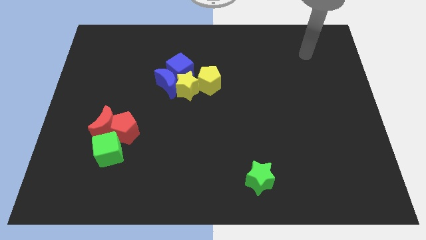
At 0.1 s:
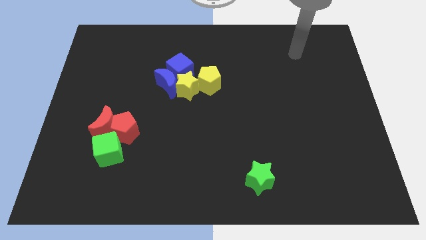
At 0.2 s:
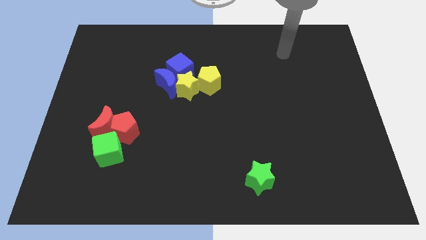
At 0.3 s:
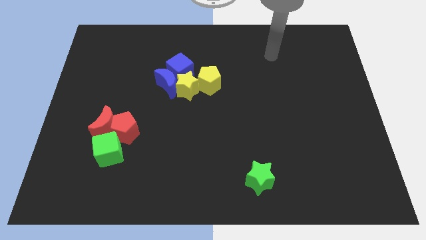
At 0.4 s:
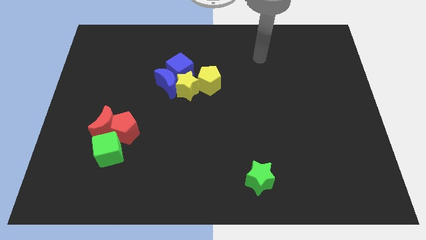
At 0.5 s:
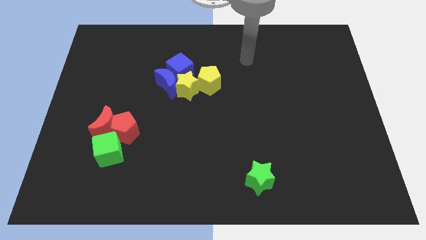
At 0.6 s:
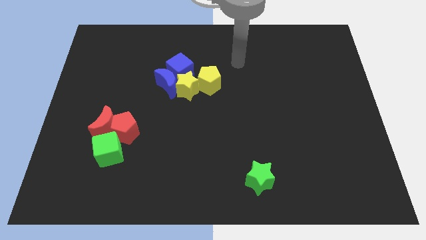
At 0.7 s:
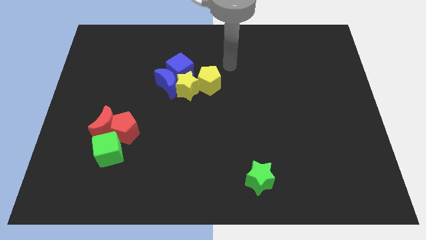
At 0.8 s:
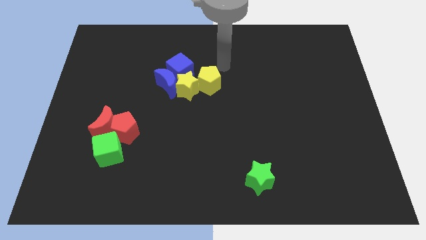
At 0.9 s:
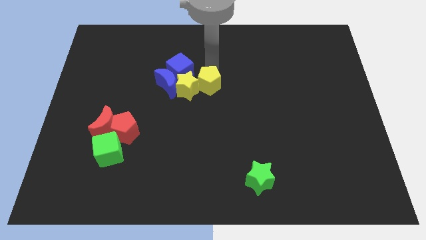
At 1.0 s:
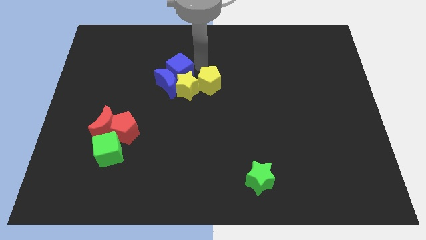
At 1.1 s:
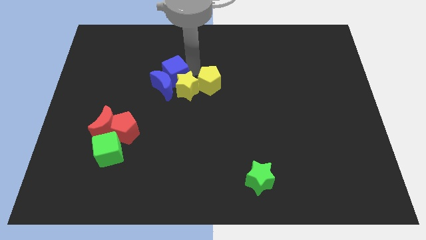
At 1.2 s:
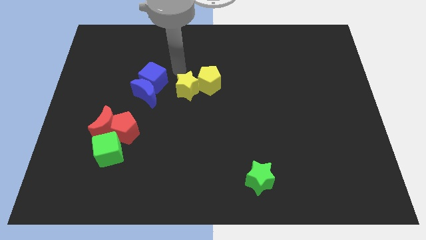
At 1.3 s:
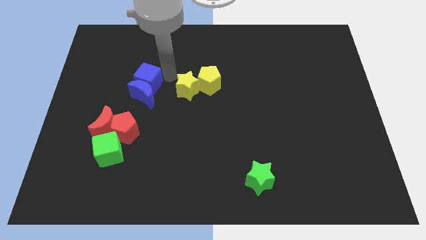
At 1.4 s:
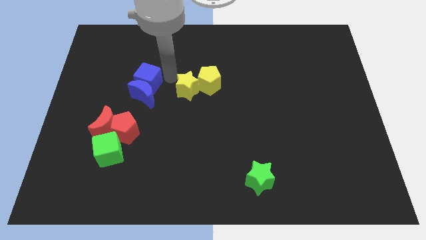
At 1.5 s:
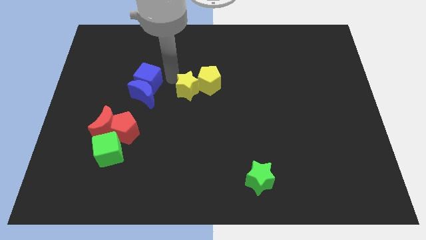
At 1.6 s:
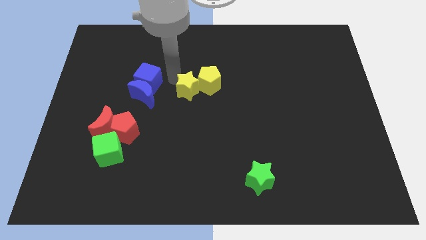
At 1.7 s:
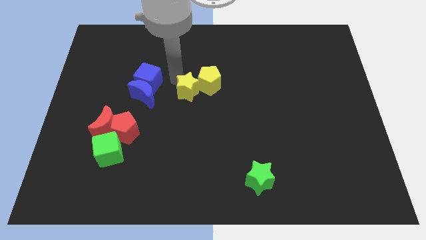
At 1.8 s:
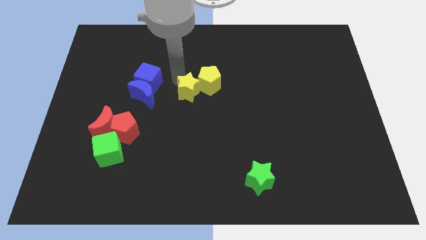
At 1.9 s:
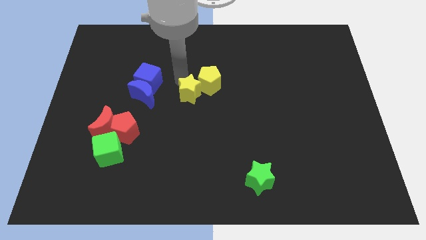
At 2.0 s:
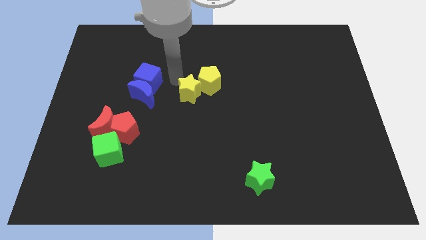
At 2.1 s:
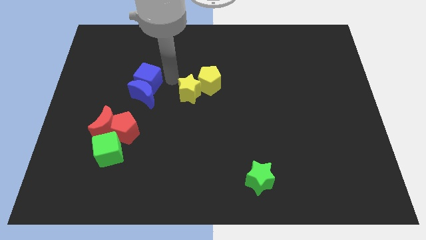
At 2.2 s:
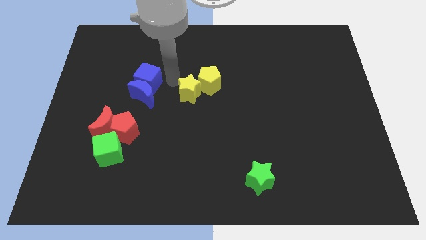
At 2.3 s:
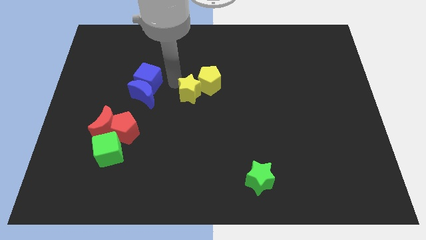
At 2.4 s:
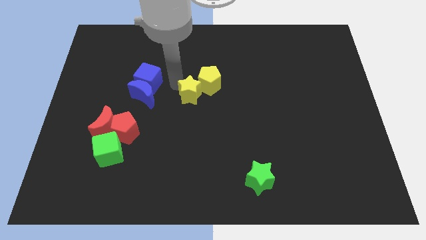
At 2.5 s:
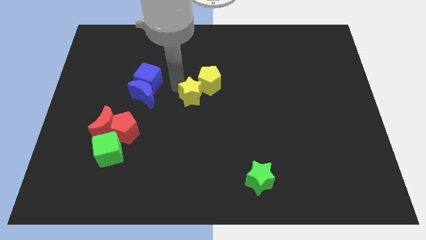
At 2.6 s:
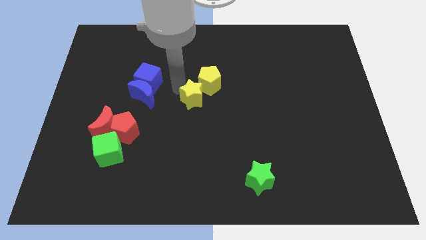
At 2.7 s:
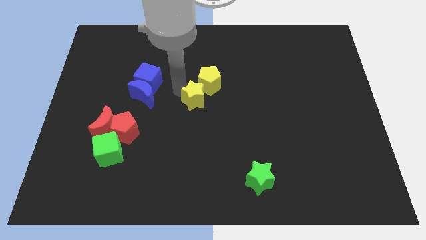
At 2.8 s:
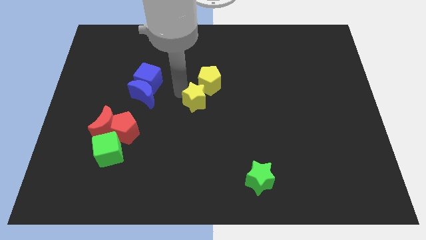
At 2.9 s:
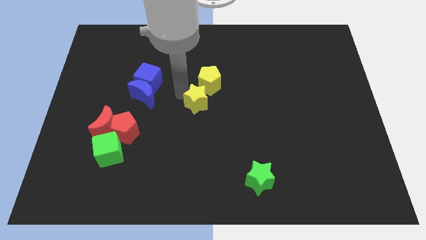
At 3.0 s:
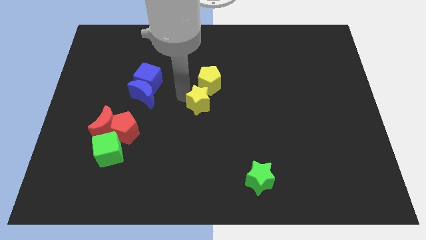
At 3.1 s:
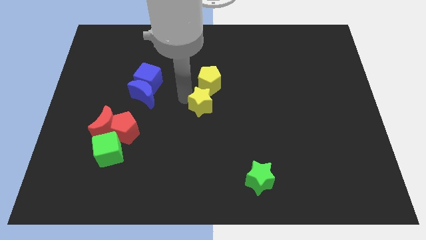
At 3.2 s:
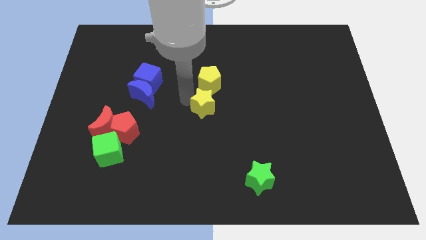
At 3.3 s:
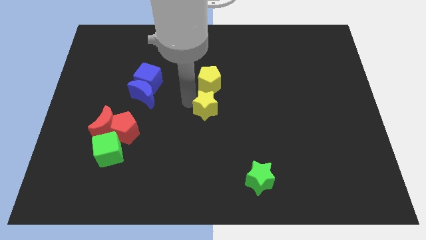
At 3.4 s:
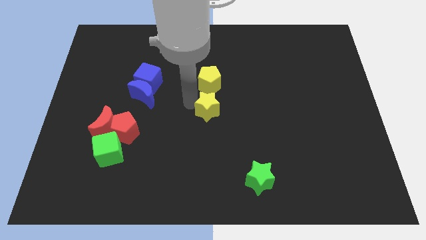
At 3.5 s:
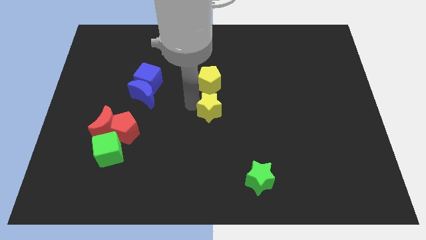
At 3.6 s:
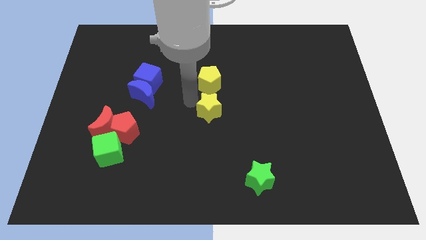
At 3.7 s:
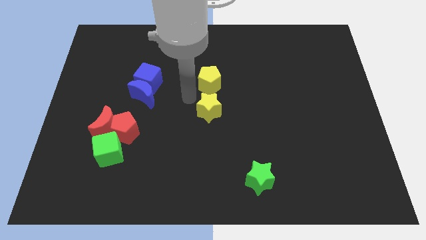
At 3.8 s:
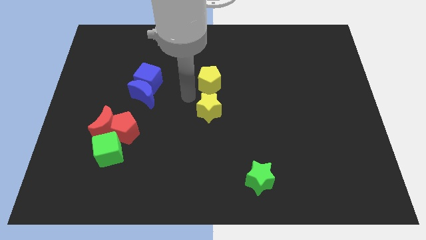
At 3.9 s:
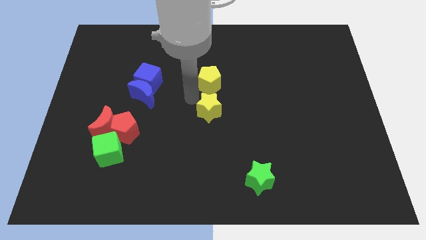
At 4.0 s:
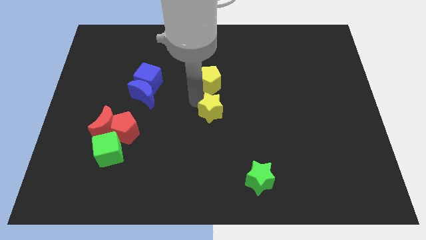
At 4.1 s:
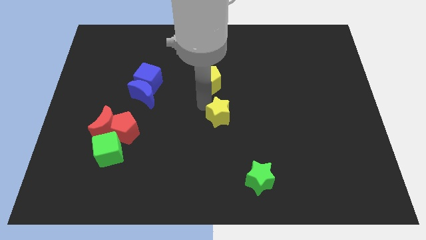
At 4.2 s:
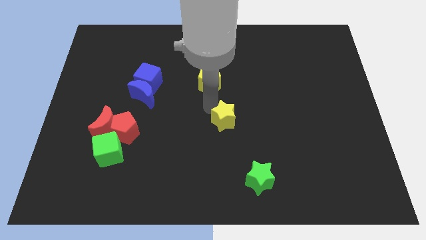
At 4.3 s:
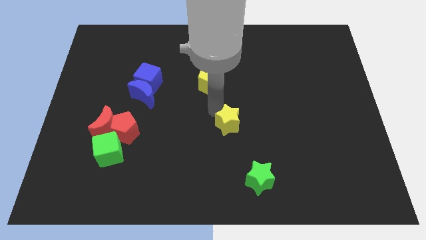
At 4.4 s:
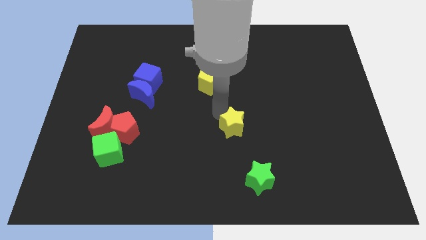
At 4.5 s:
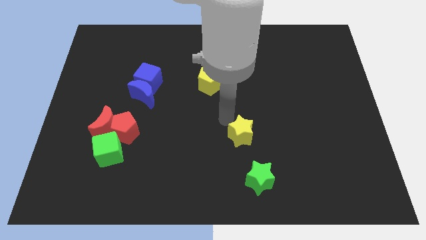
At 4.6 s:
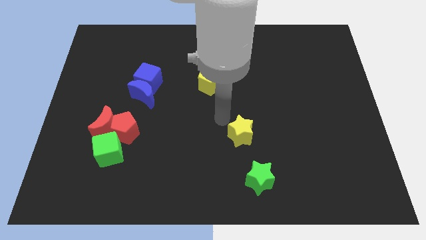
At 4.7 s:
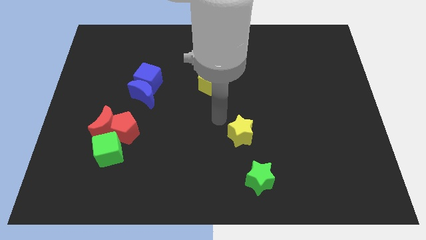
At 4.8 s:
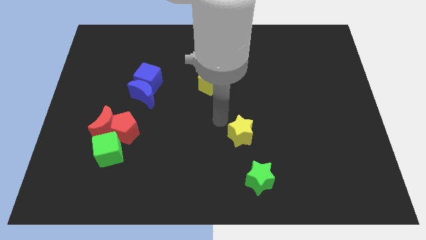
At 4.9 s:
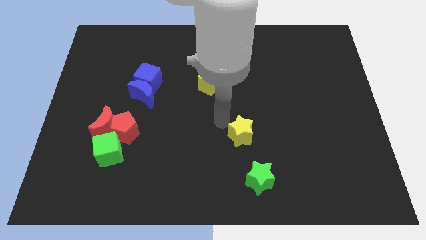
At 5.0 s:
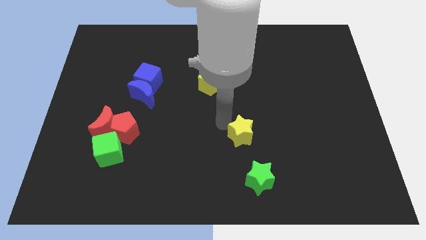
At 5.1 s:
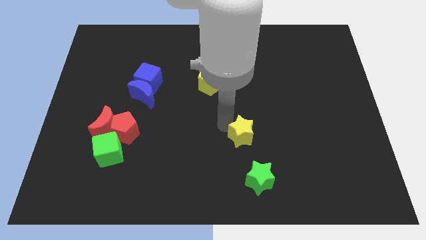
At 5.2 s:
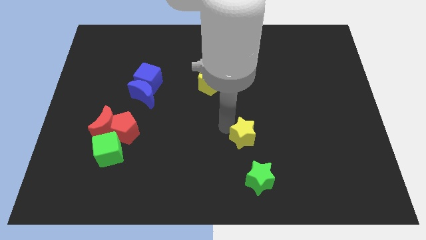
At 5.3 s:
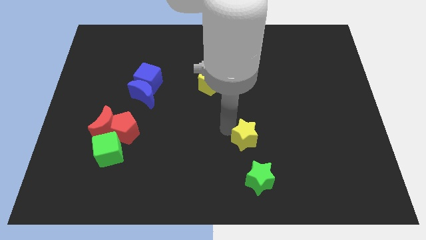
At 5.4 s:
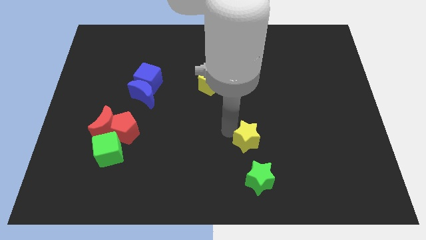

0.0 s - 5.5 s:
push the yellow star downwards and right

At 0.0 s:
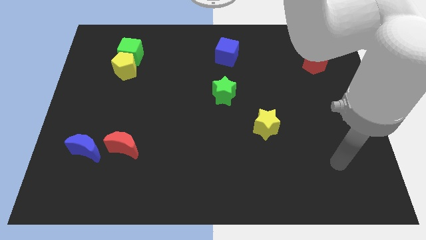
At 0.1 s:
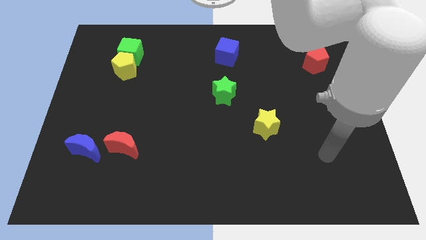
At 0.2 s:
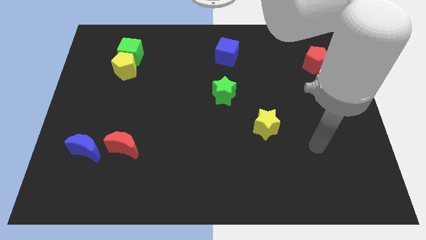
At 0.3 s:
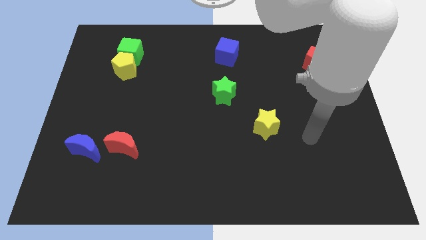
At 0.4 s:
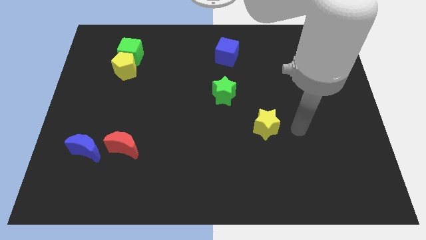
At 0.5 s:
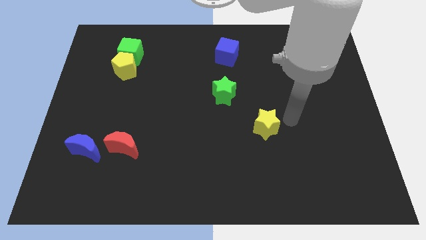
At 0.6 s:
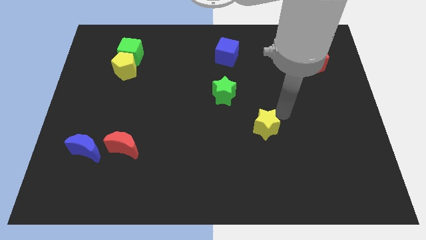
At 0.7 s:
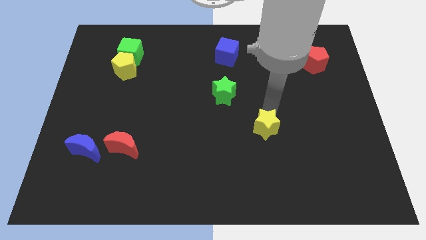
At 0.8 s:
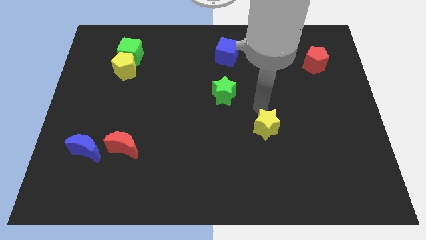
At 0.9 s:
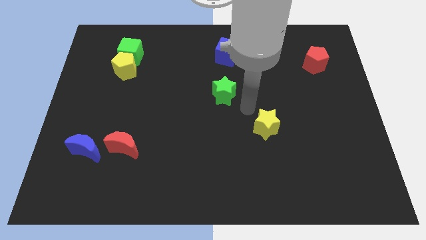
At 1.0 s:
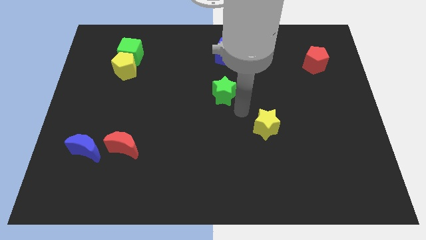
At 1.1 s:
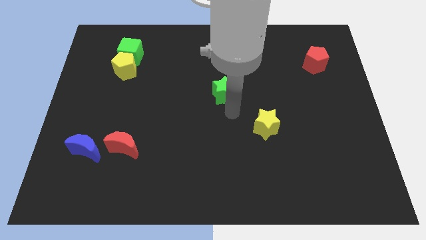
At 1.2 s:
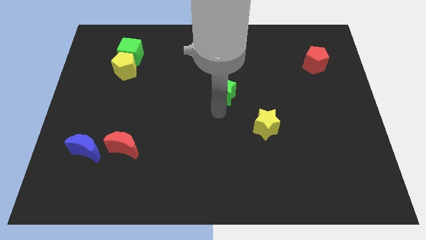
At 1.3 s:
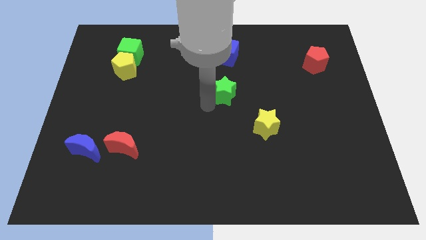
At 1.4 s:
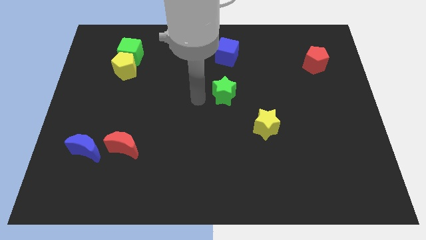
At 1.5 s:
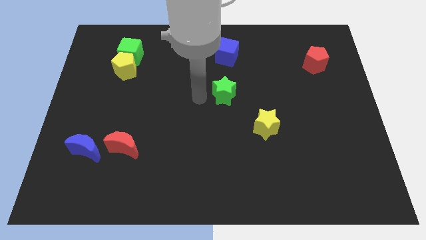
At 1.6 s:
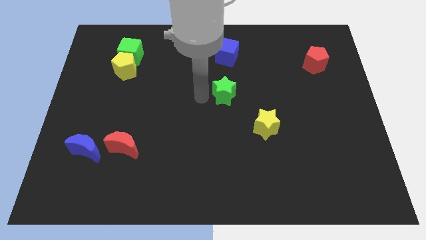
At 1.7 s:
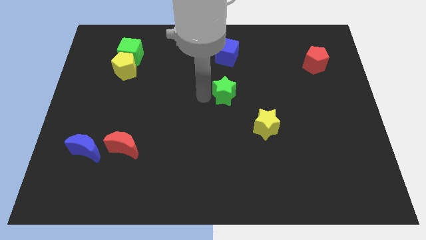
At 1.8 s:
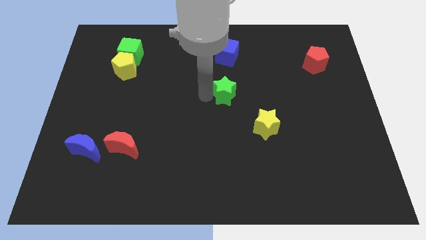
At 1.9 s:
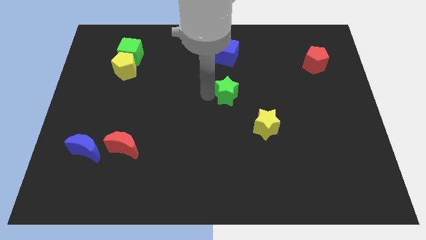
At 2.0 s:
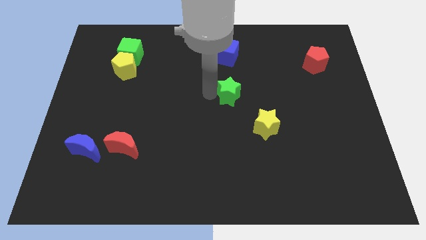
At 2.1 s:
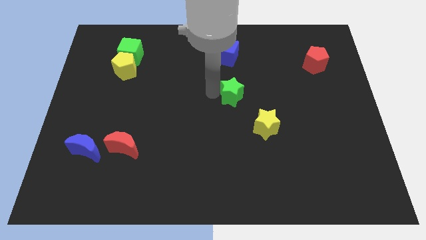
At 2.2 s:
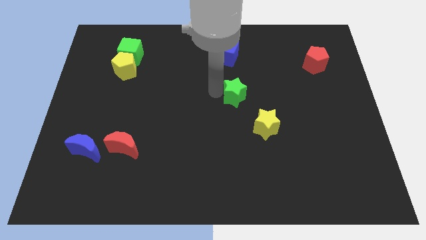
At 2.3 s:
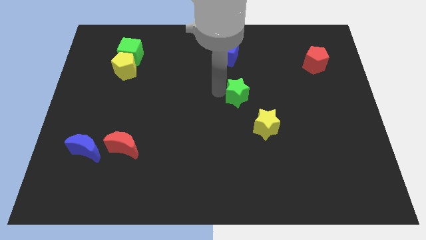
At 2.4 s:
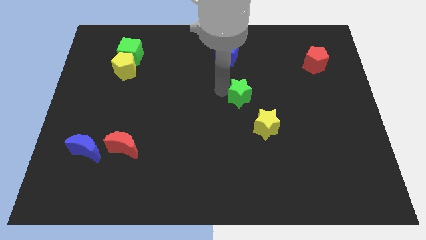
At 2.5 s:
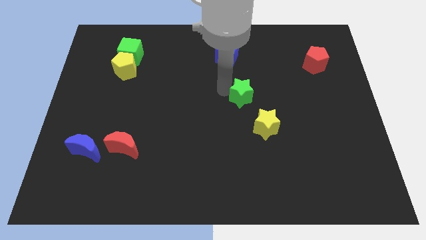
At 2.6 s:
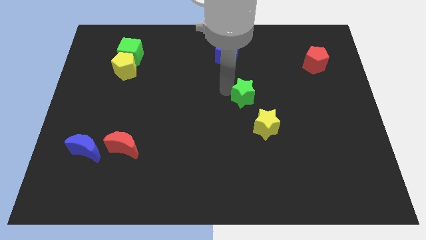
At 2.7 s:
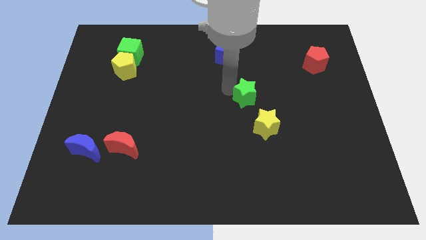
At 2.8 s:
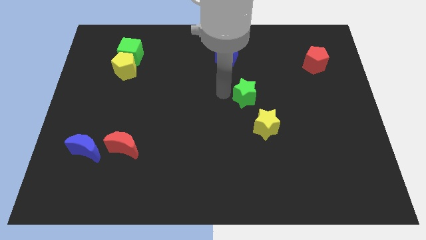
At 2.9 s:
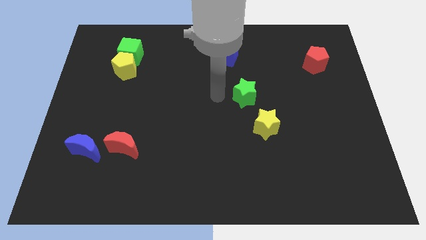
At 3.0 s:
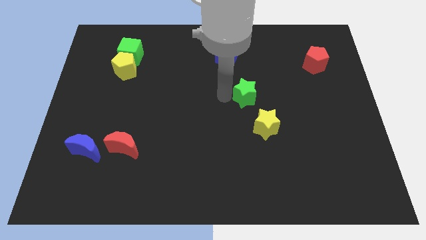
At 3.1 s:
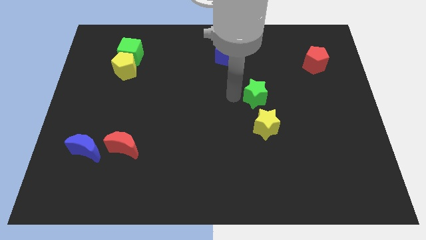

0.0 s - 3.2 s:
slide the green star right a bit
